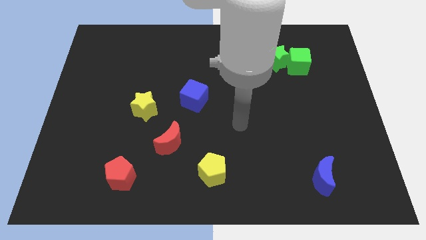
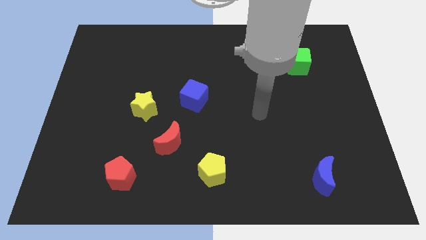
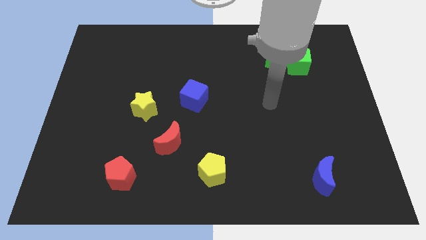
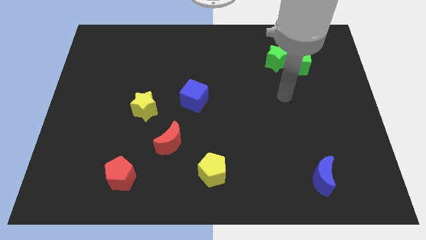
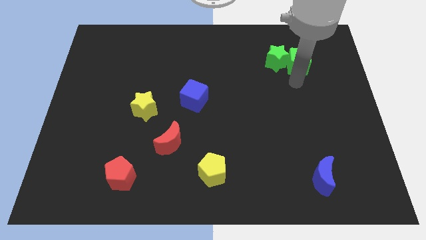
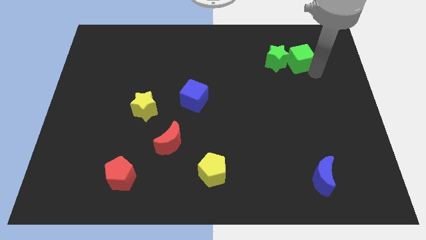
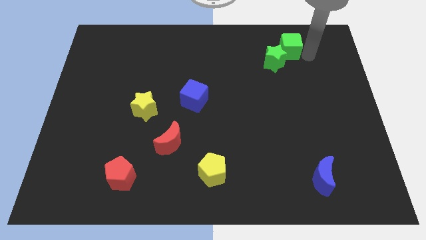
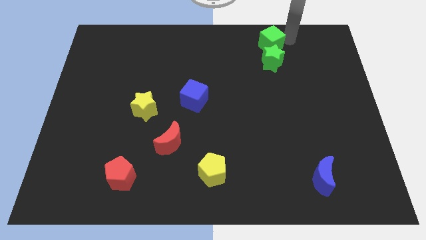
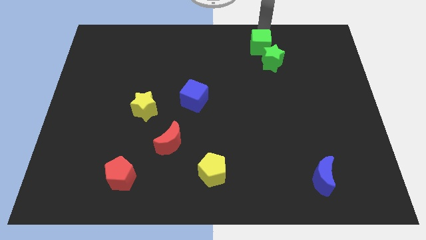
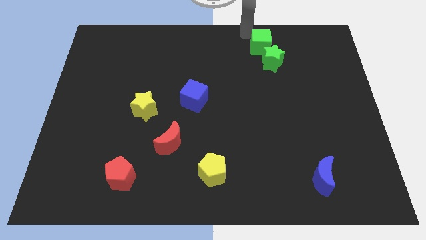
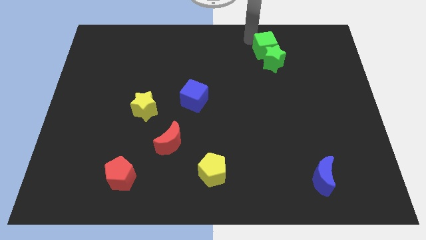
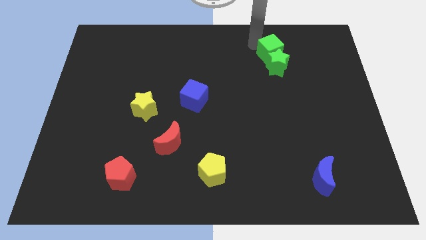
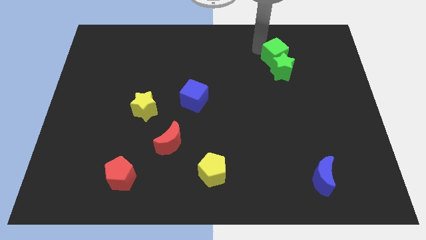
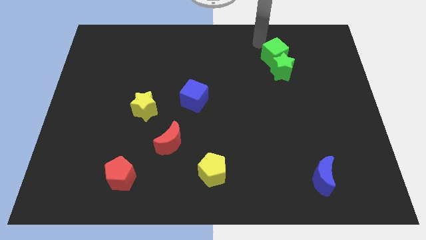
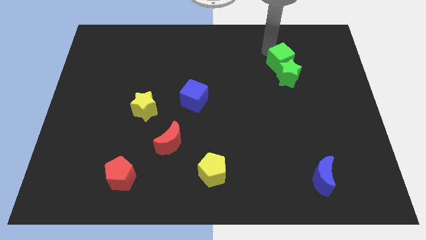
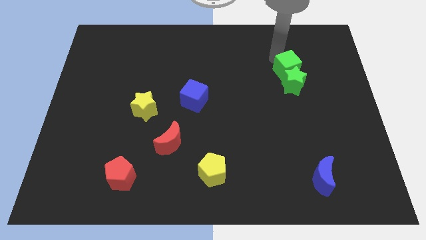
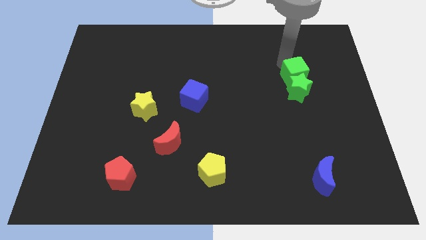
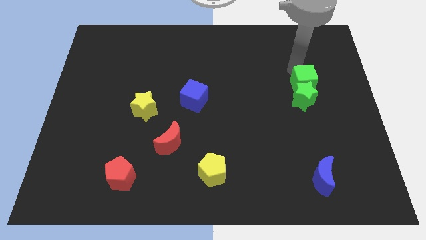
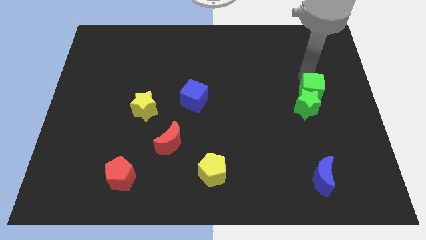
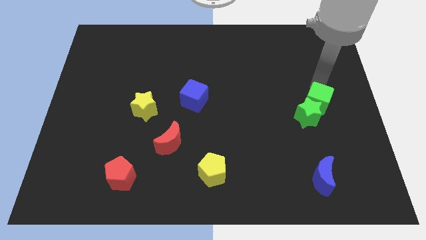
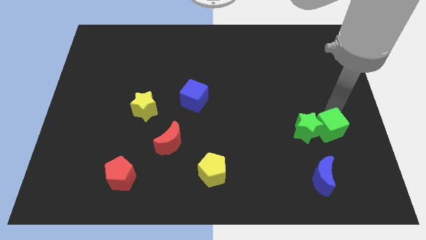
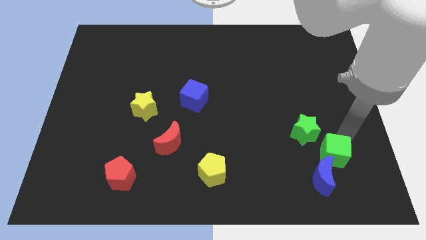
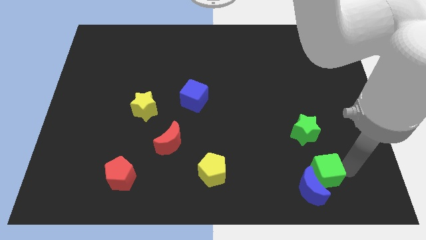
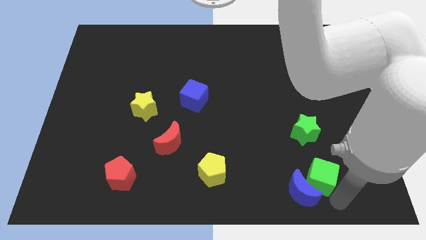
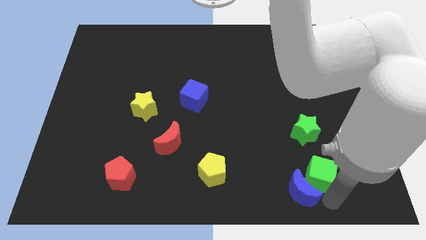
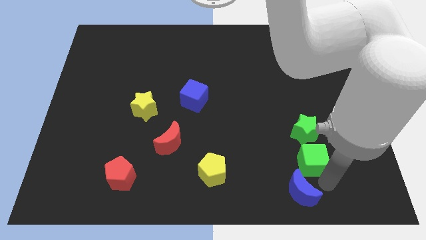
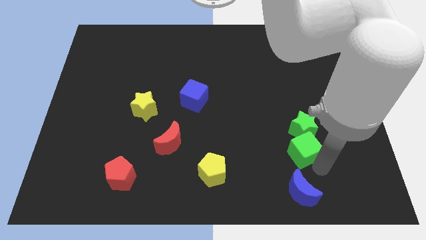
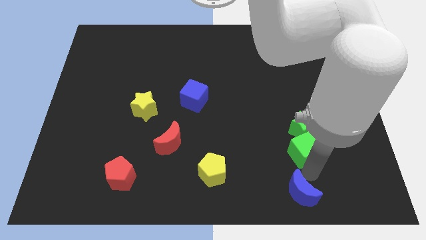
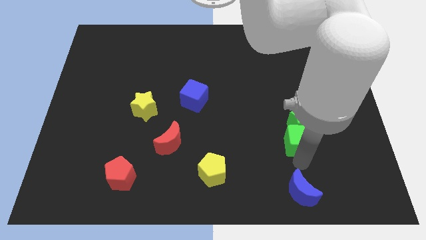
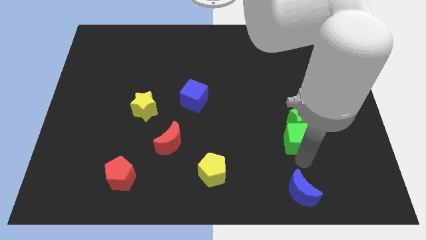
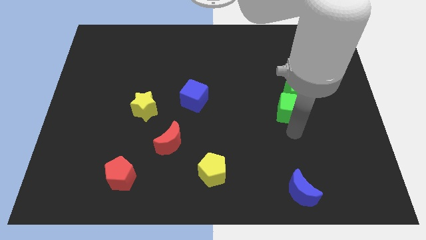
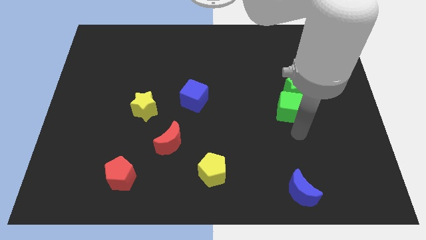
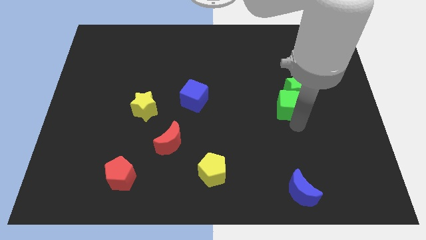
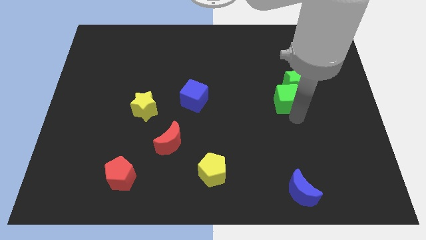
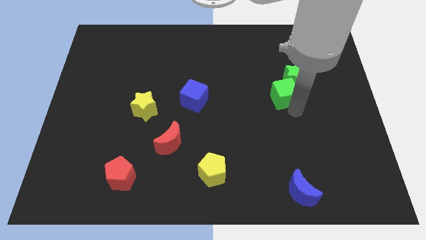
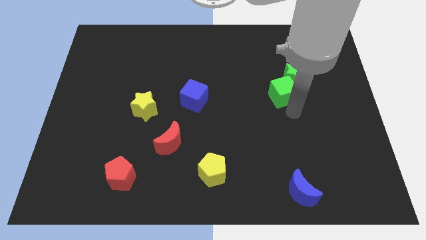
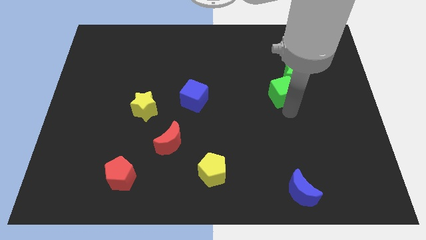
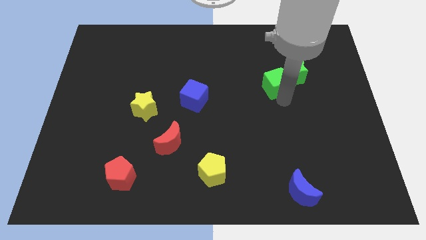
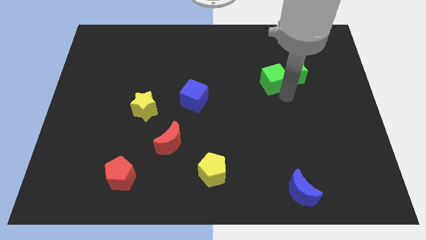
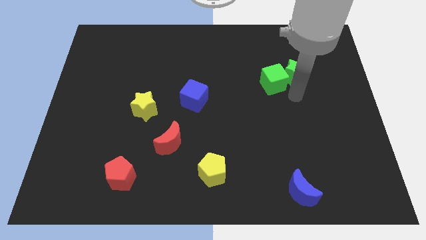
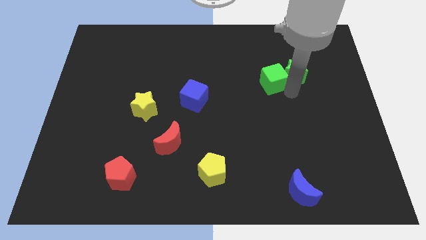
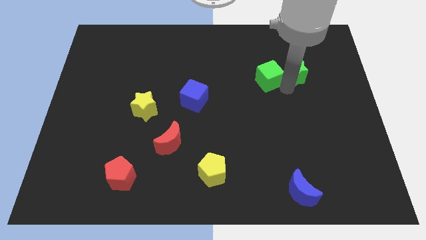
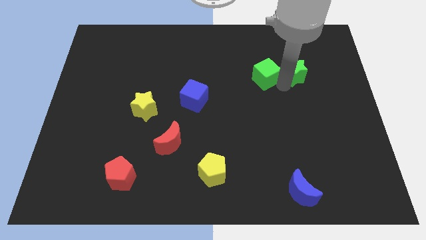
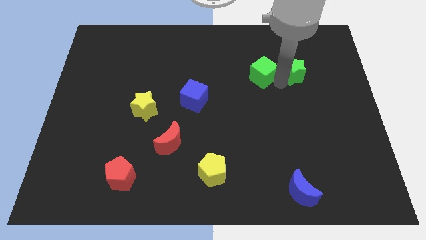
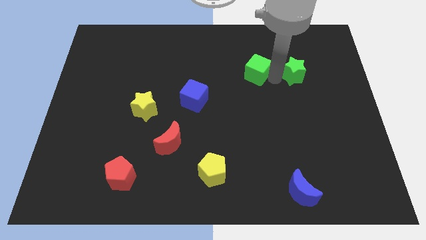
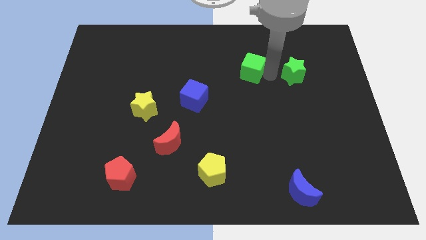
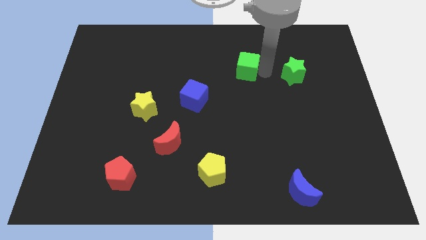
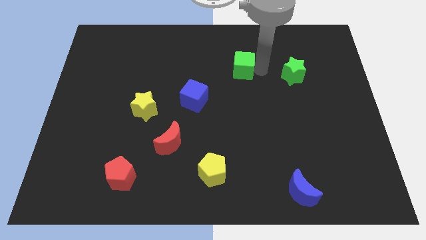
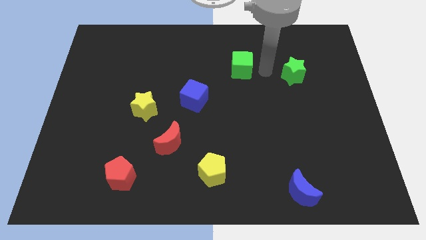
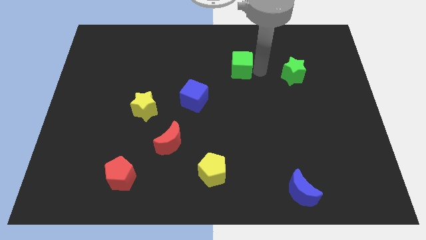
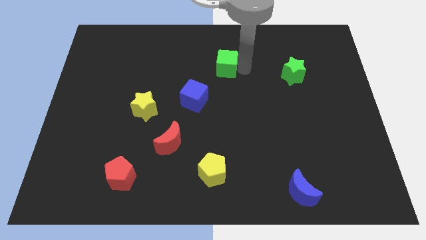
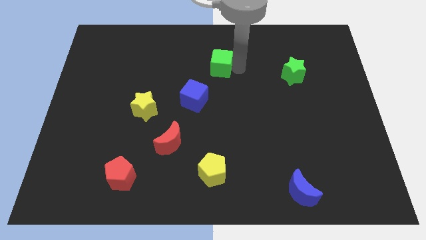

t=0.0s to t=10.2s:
move the green cube left

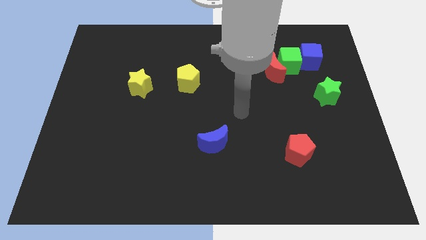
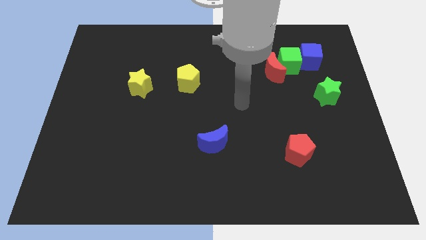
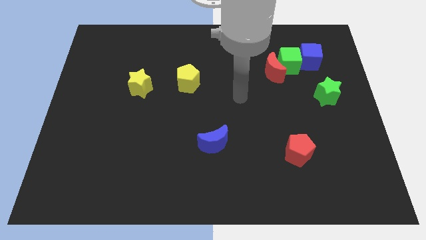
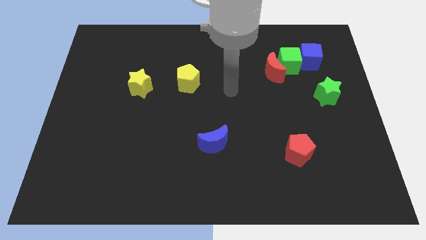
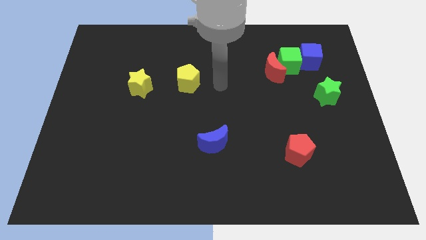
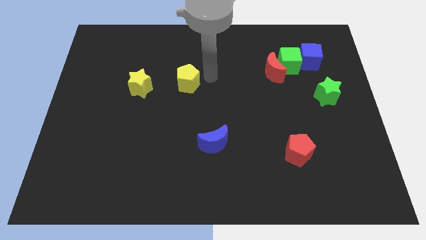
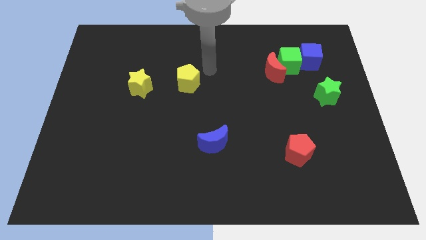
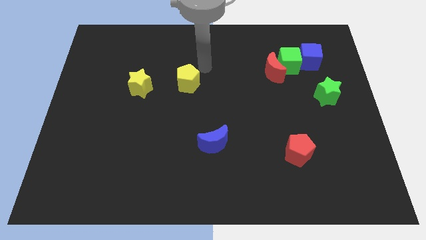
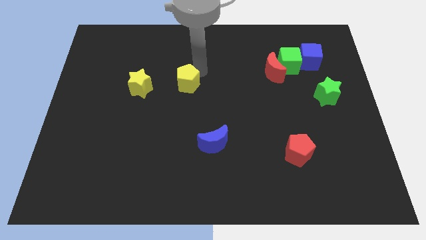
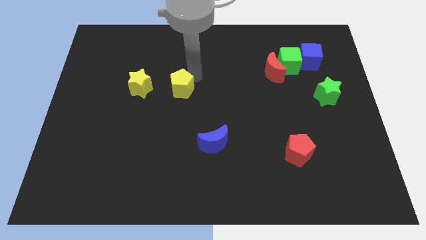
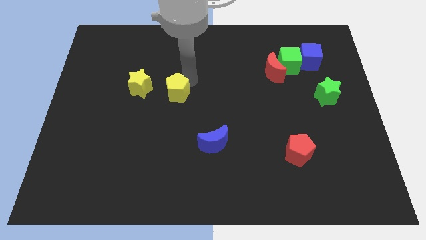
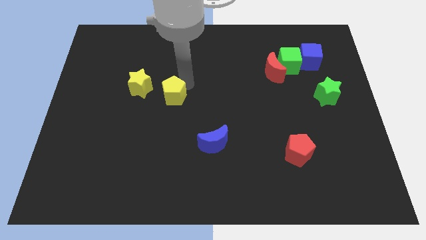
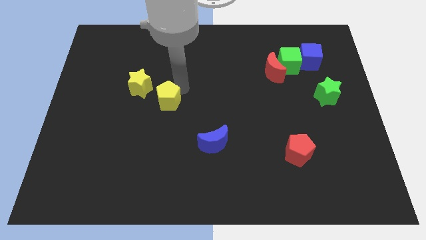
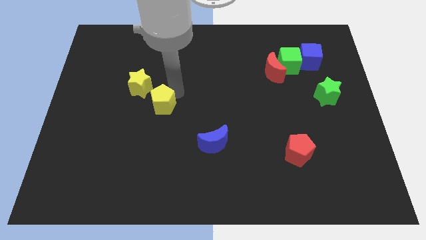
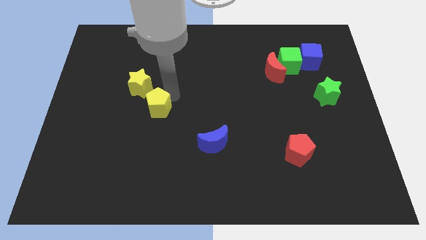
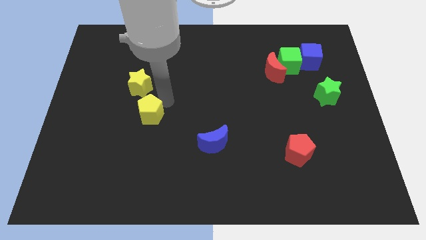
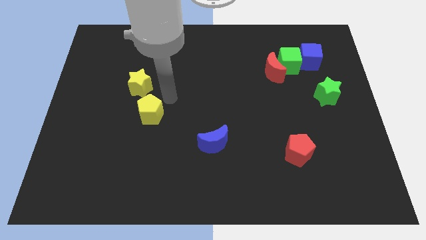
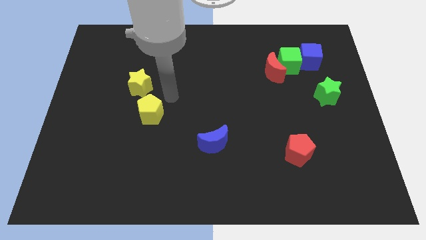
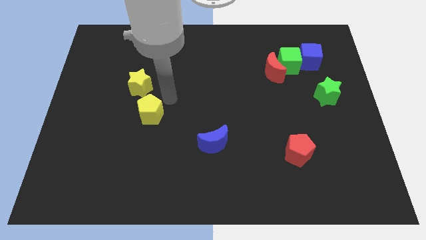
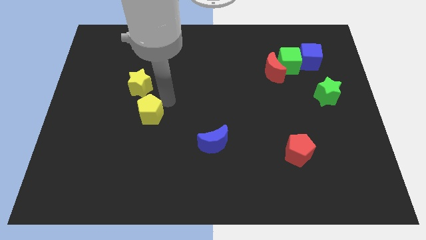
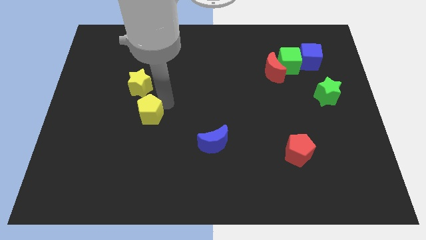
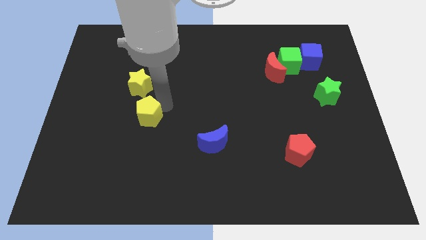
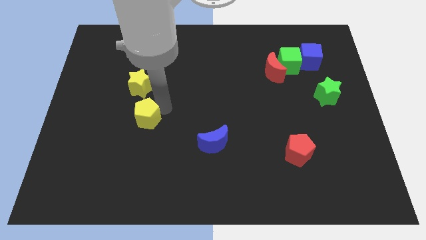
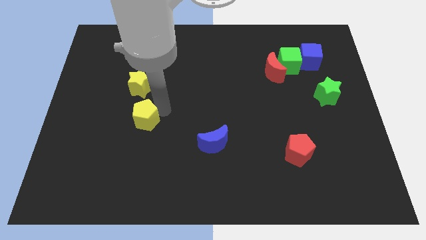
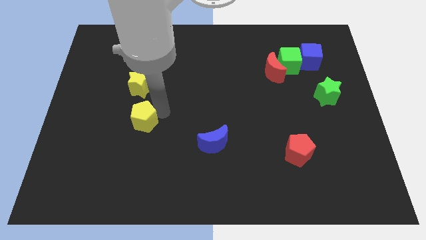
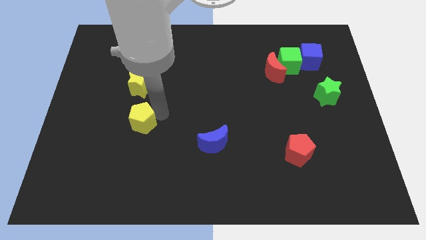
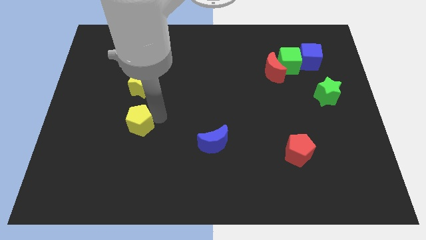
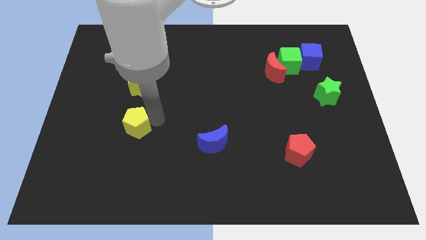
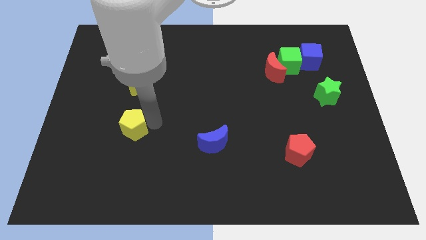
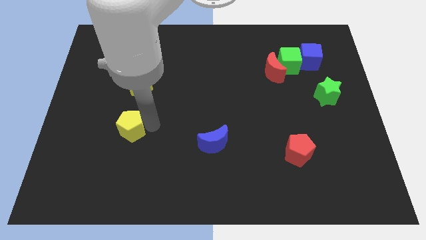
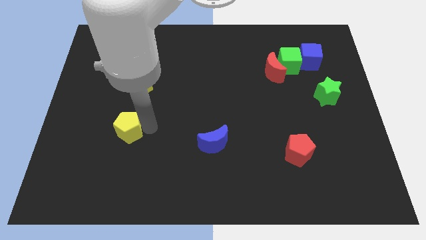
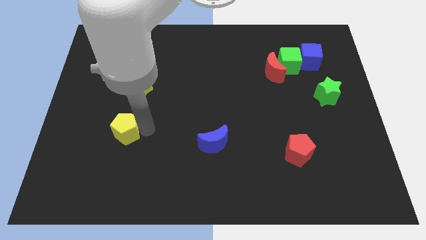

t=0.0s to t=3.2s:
slide the yellow pentagon diagonally down and to the left
